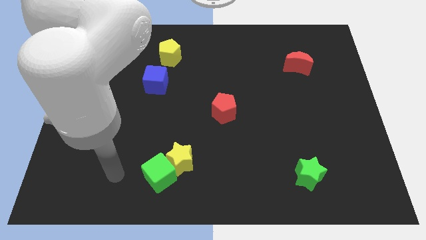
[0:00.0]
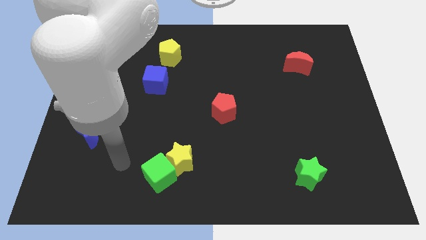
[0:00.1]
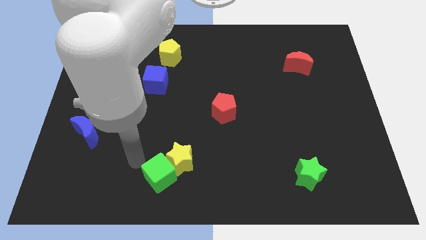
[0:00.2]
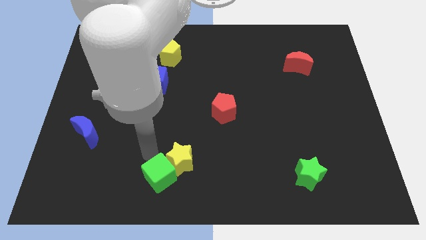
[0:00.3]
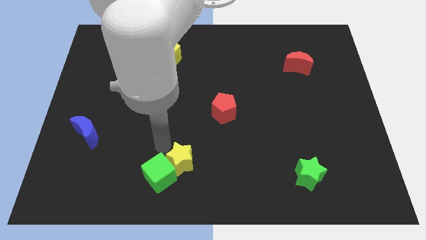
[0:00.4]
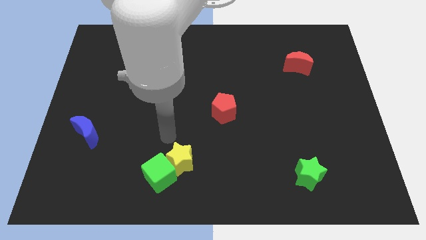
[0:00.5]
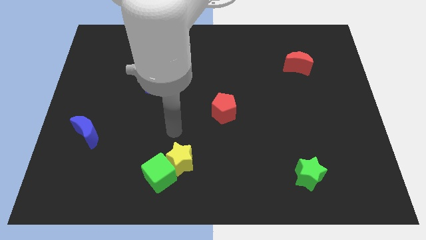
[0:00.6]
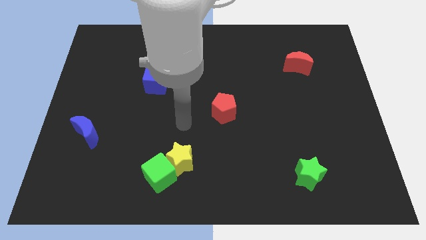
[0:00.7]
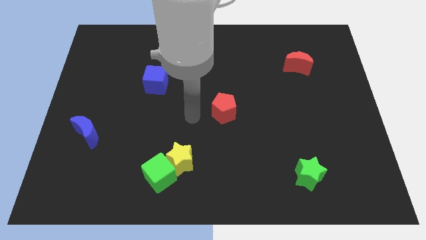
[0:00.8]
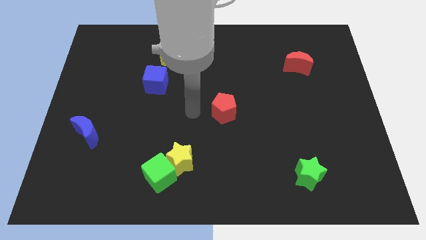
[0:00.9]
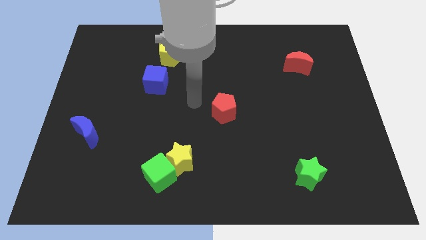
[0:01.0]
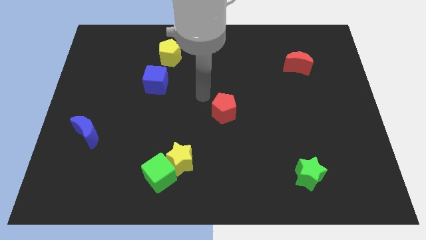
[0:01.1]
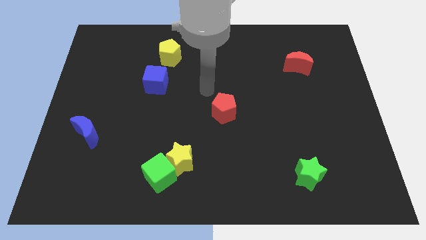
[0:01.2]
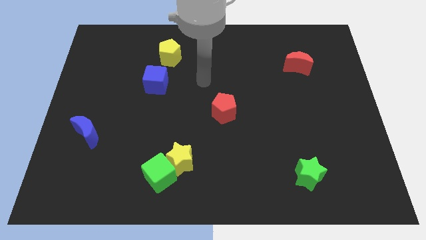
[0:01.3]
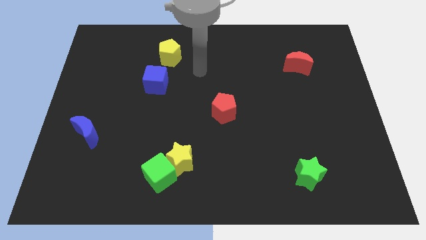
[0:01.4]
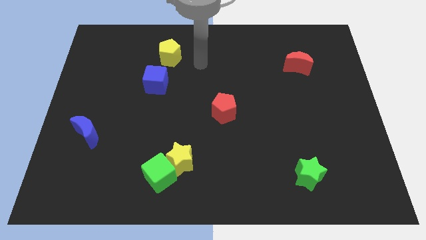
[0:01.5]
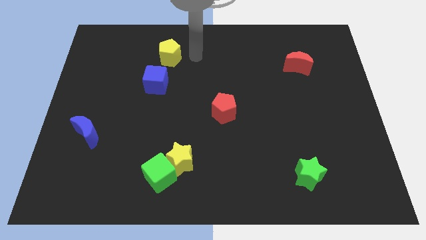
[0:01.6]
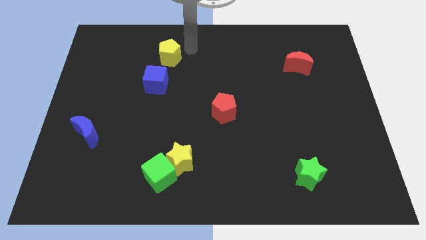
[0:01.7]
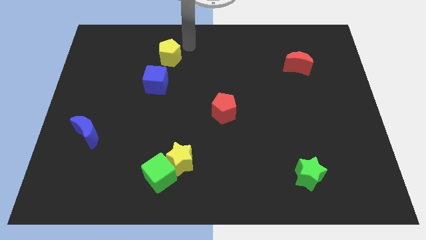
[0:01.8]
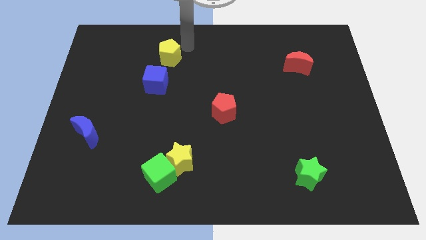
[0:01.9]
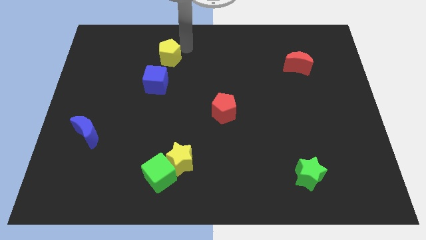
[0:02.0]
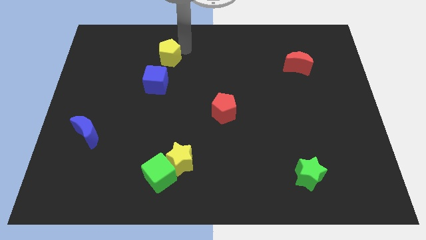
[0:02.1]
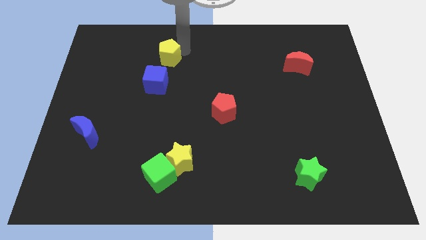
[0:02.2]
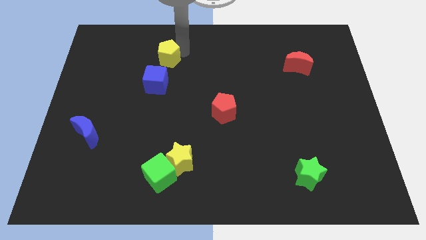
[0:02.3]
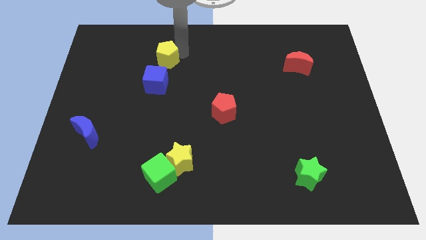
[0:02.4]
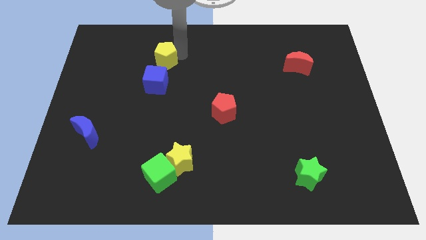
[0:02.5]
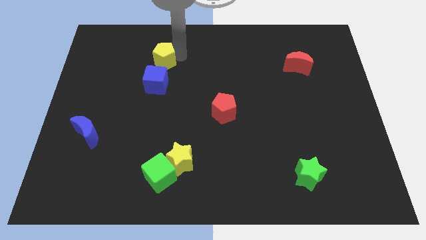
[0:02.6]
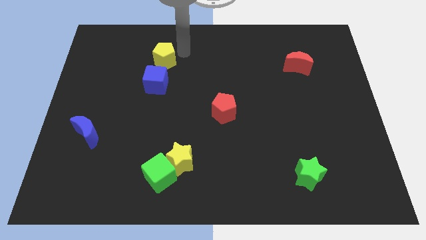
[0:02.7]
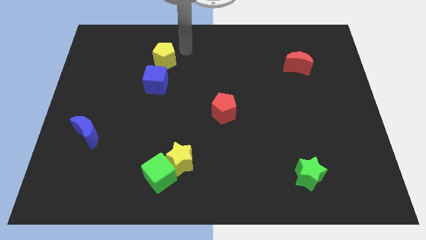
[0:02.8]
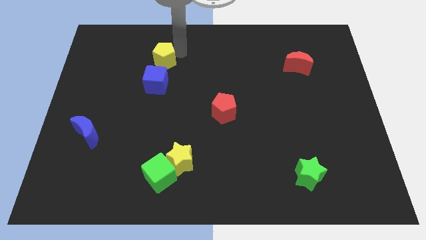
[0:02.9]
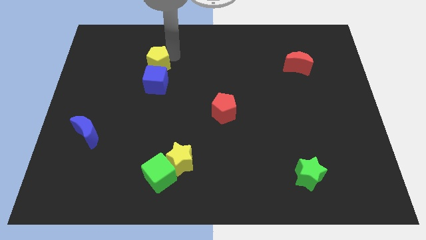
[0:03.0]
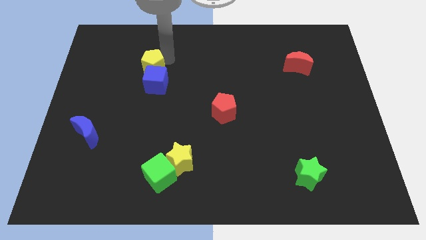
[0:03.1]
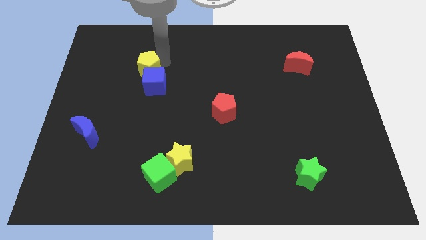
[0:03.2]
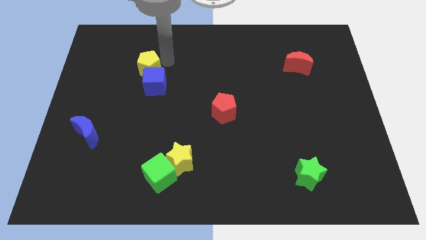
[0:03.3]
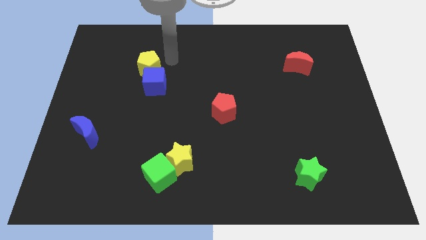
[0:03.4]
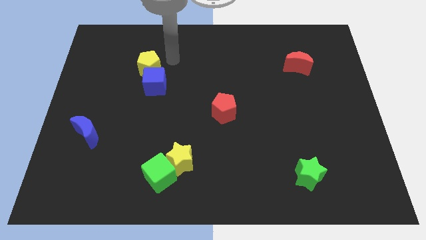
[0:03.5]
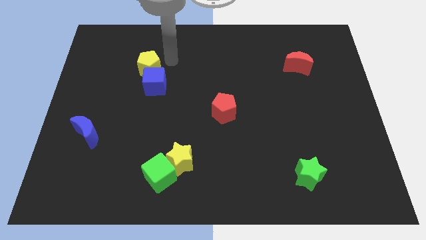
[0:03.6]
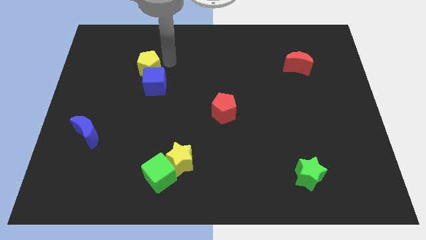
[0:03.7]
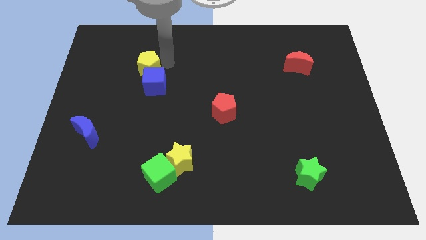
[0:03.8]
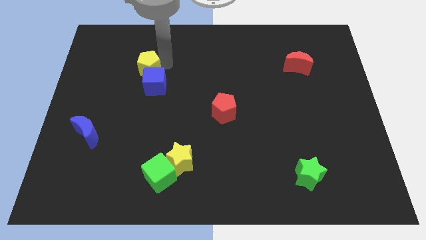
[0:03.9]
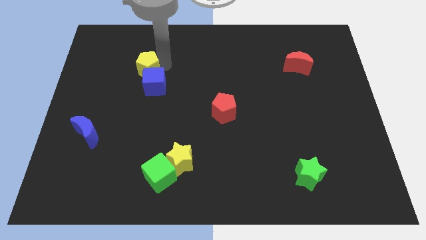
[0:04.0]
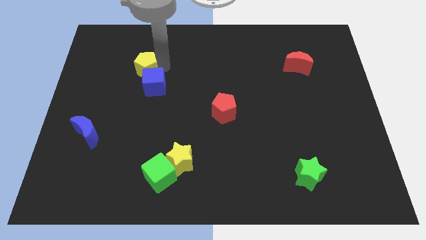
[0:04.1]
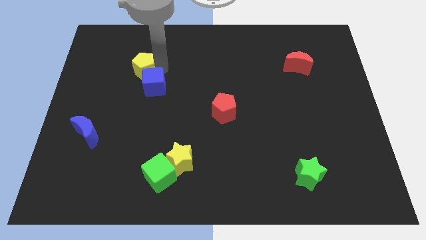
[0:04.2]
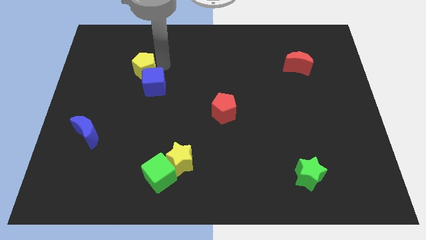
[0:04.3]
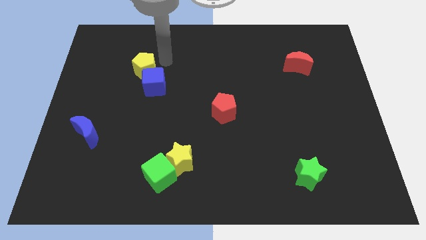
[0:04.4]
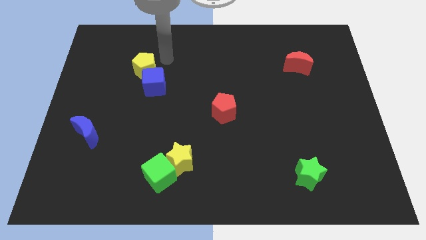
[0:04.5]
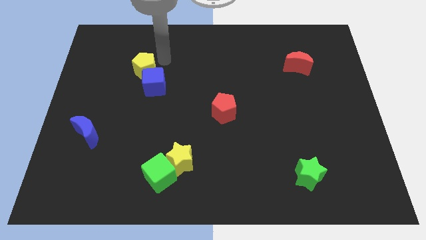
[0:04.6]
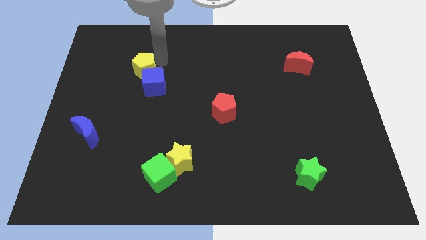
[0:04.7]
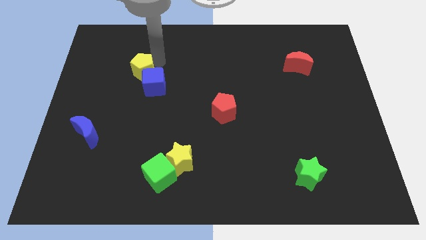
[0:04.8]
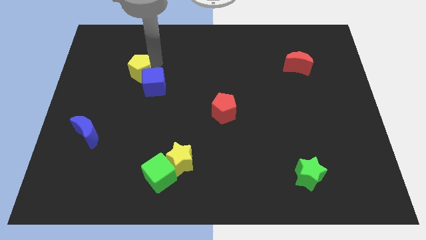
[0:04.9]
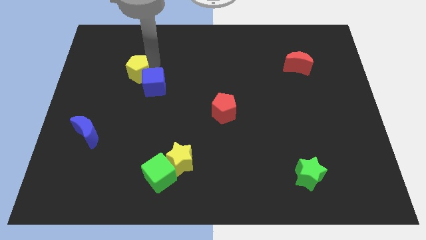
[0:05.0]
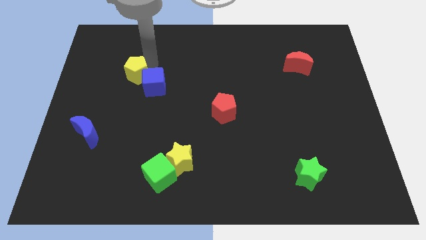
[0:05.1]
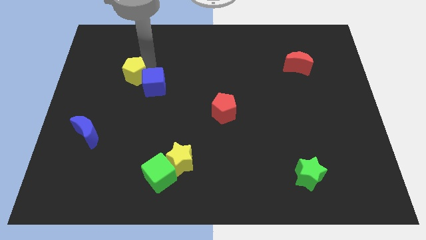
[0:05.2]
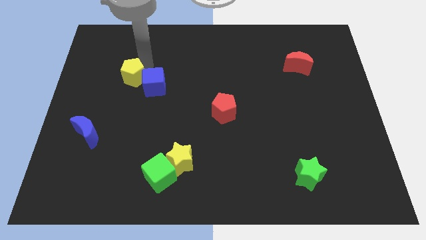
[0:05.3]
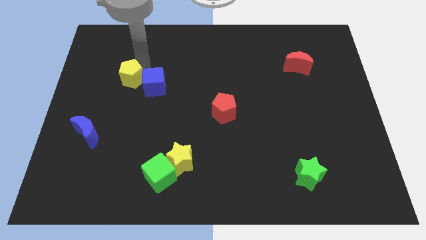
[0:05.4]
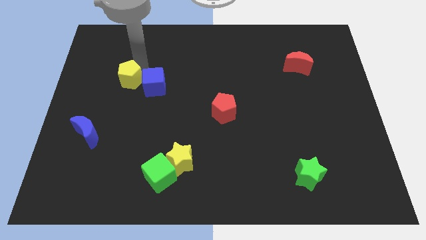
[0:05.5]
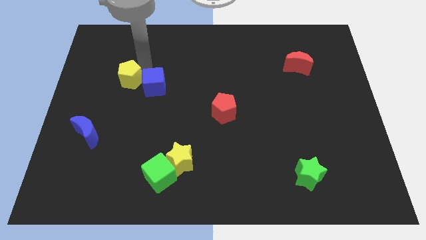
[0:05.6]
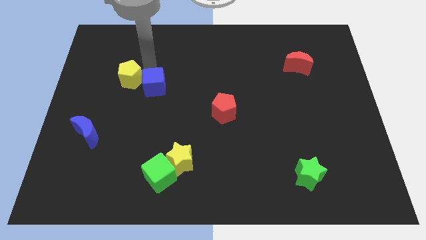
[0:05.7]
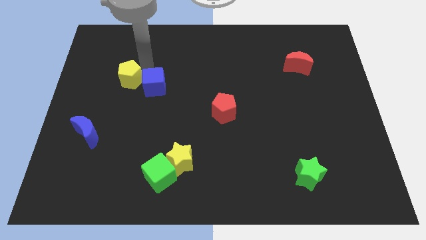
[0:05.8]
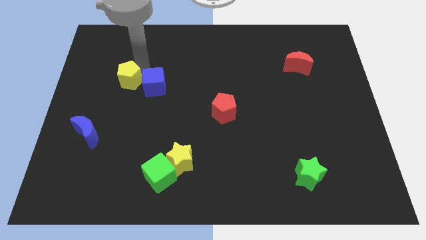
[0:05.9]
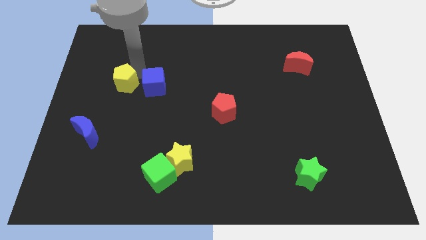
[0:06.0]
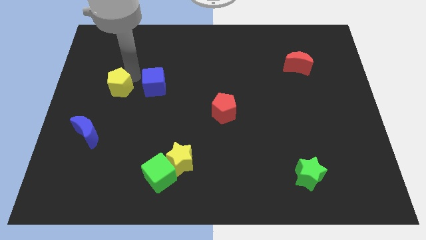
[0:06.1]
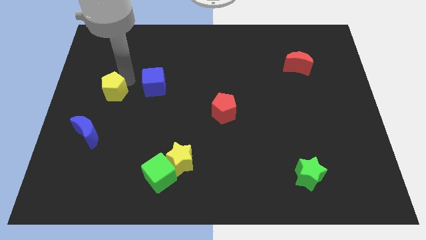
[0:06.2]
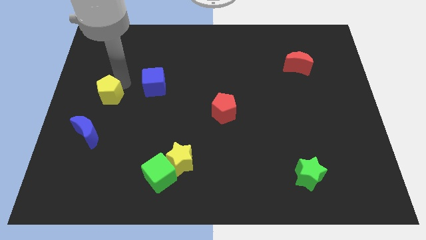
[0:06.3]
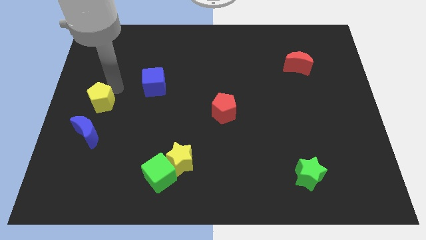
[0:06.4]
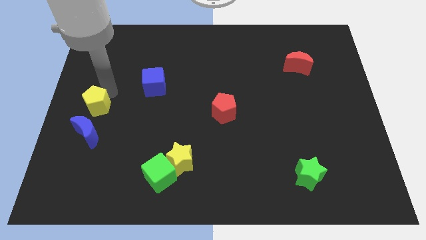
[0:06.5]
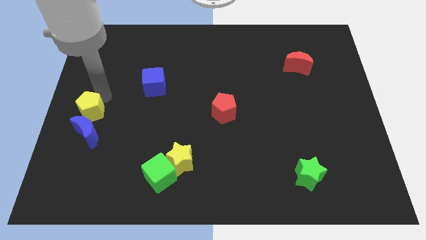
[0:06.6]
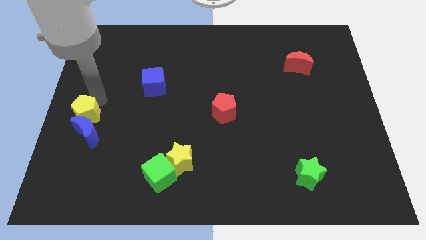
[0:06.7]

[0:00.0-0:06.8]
put the yellow pentagon to the blue moon

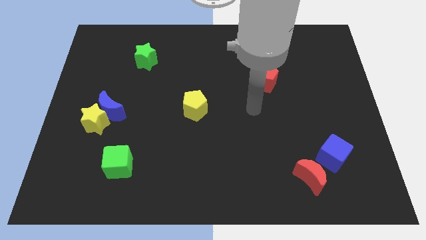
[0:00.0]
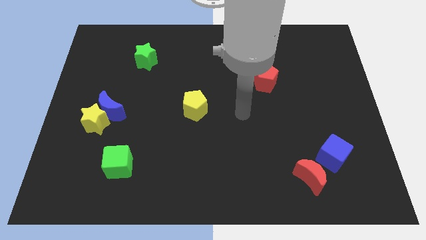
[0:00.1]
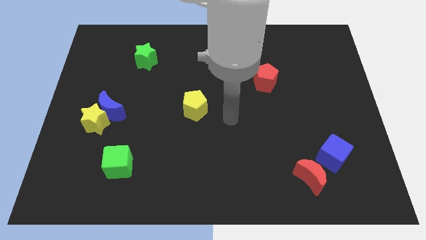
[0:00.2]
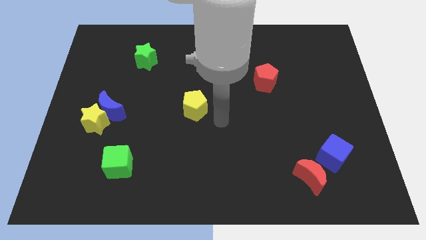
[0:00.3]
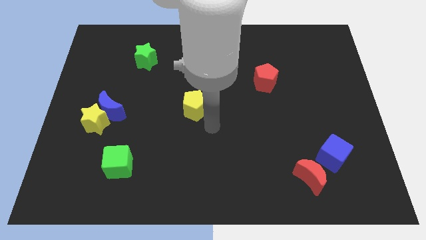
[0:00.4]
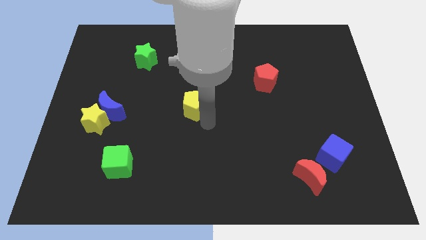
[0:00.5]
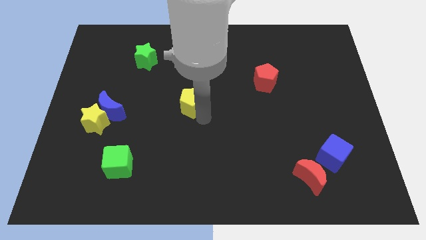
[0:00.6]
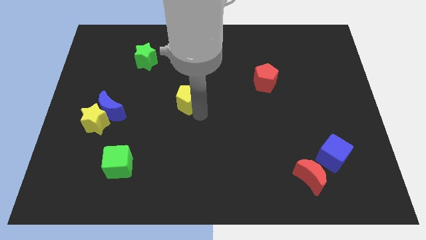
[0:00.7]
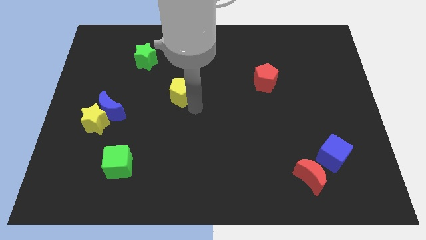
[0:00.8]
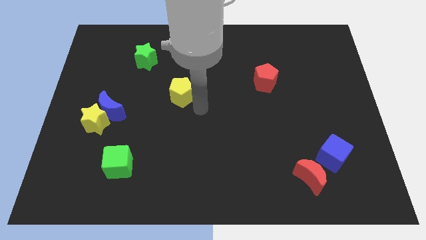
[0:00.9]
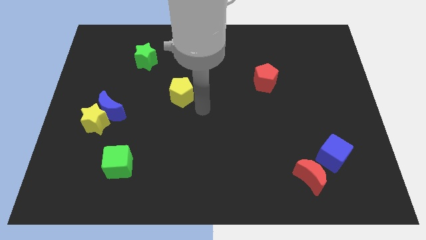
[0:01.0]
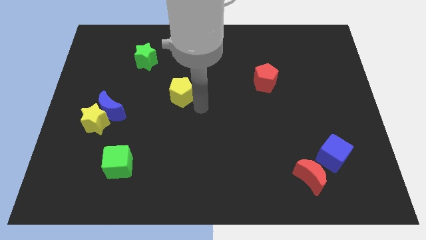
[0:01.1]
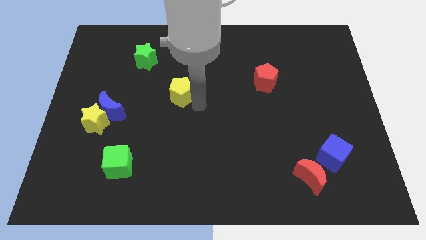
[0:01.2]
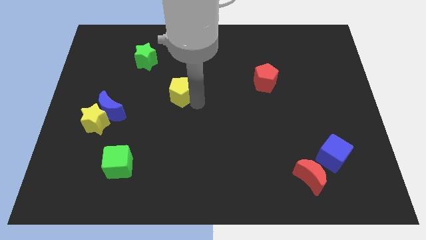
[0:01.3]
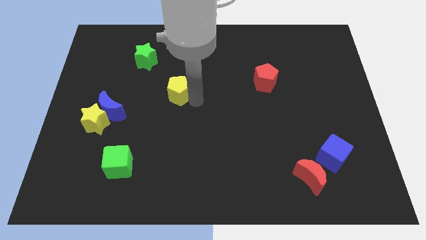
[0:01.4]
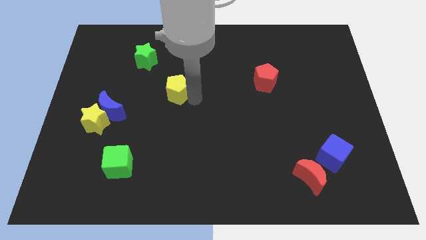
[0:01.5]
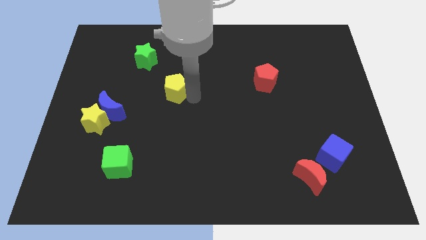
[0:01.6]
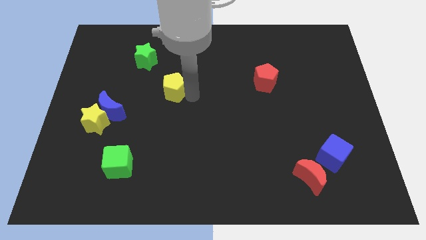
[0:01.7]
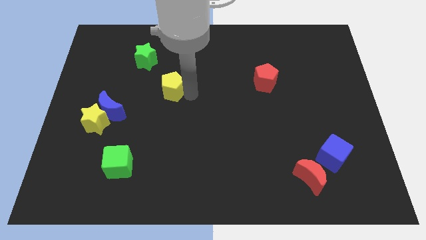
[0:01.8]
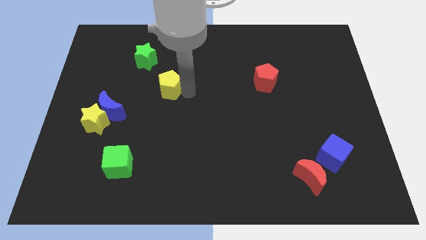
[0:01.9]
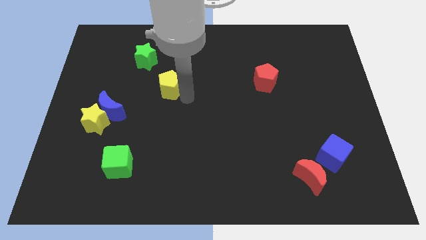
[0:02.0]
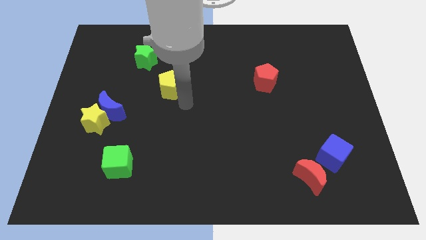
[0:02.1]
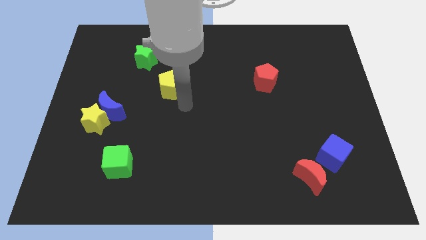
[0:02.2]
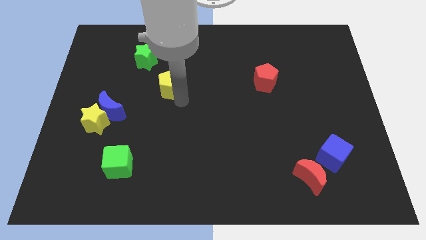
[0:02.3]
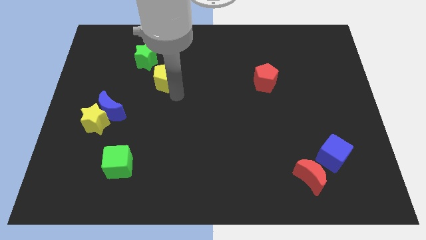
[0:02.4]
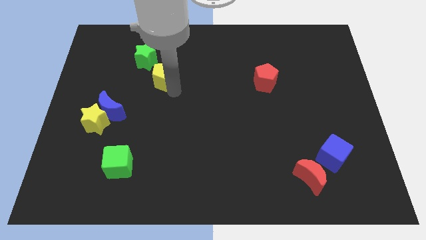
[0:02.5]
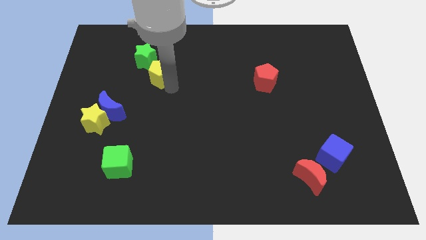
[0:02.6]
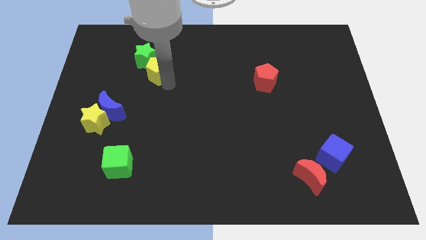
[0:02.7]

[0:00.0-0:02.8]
move the yellow pentagon next to the green star
